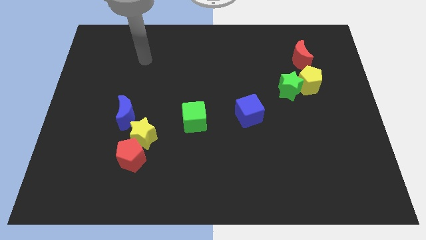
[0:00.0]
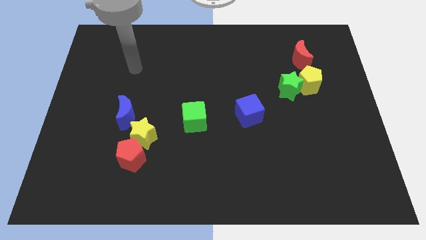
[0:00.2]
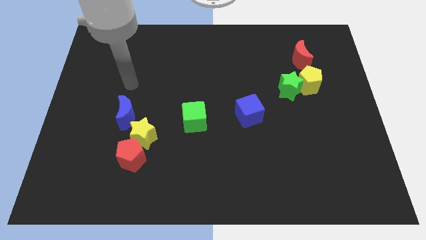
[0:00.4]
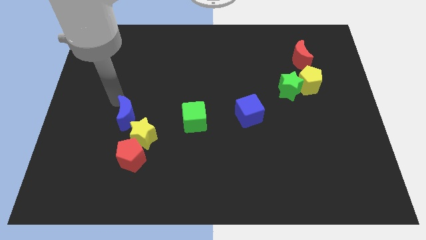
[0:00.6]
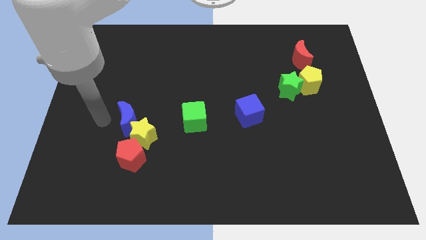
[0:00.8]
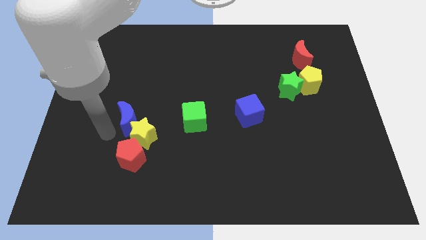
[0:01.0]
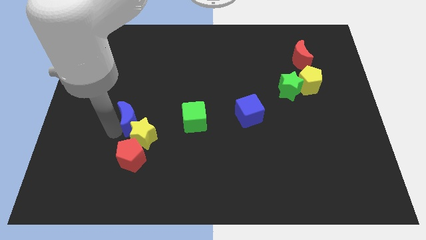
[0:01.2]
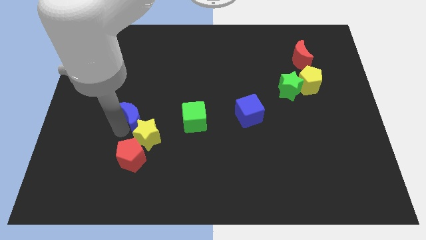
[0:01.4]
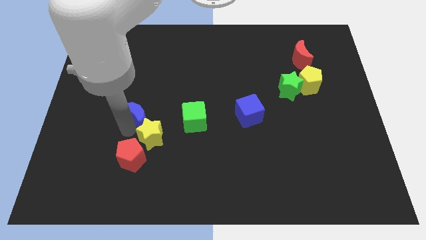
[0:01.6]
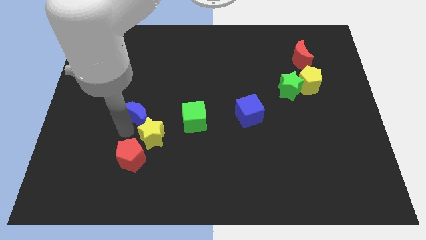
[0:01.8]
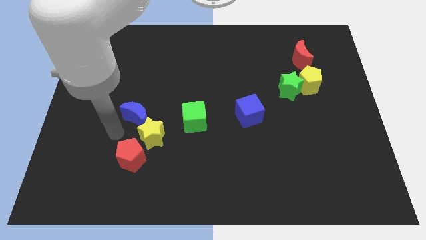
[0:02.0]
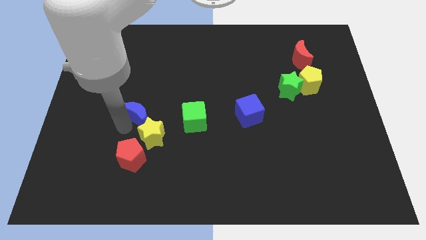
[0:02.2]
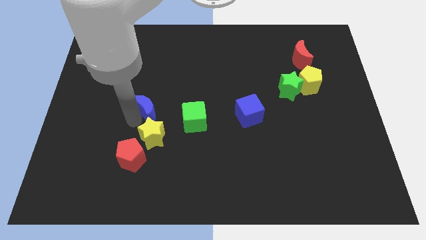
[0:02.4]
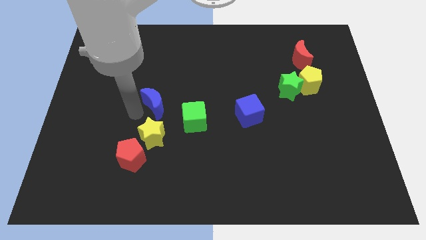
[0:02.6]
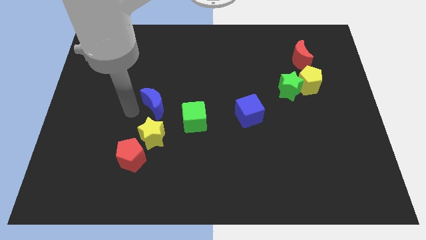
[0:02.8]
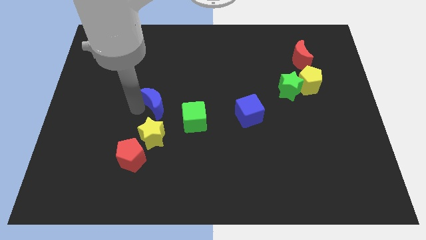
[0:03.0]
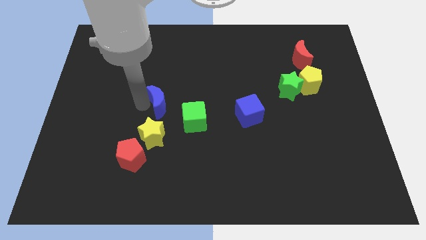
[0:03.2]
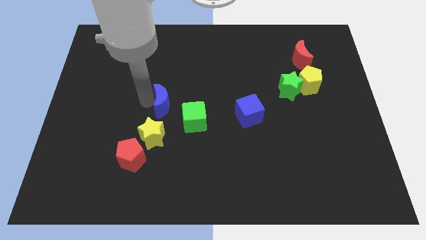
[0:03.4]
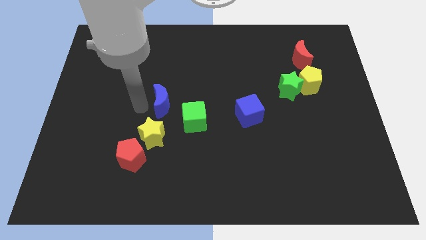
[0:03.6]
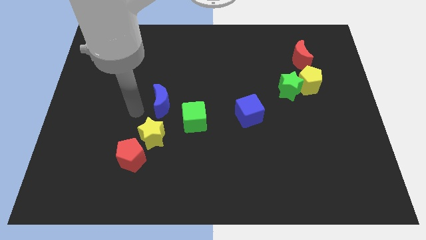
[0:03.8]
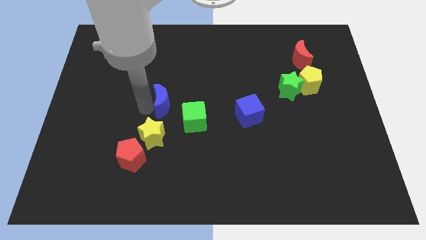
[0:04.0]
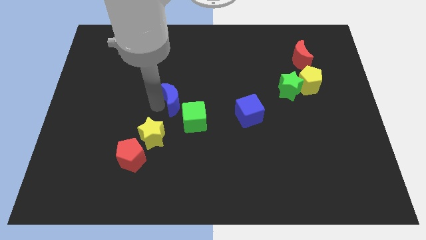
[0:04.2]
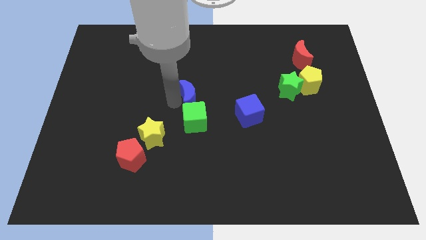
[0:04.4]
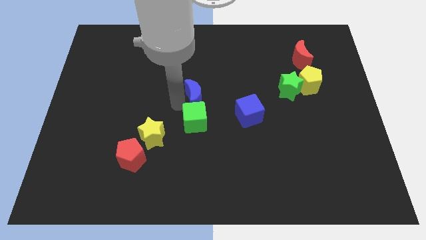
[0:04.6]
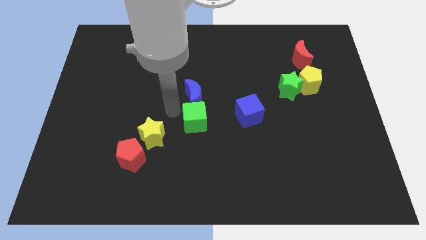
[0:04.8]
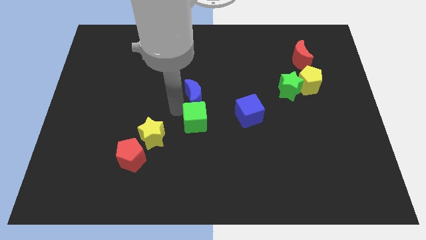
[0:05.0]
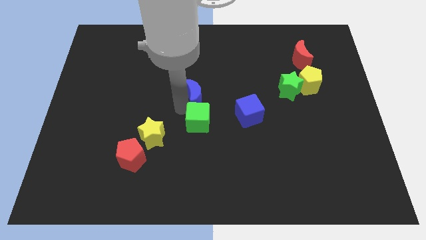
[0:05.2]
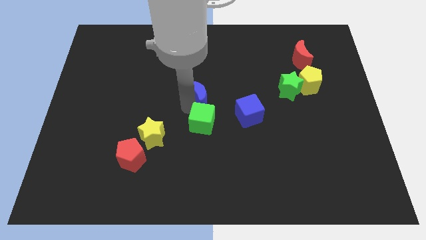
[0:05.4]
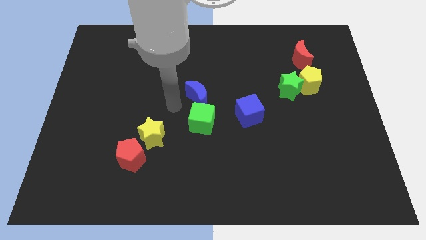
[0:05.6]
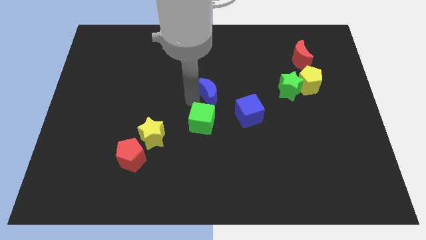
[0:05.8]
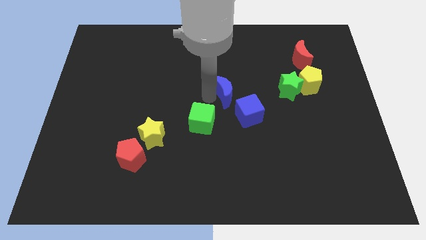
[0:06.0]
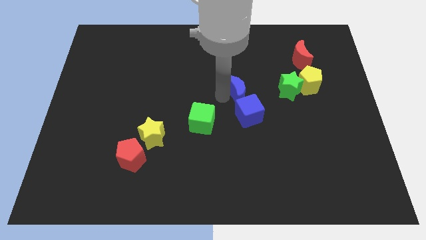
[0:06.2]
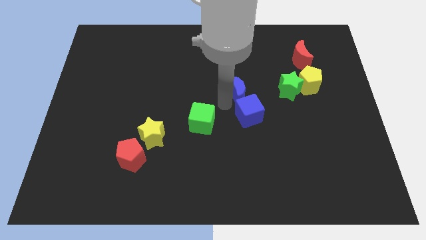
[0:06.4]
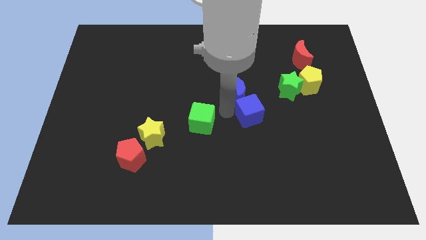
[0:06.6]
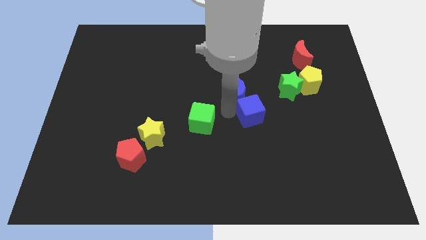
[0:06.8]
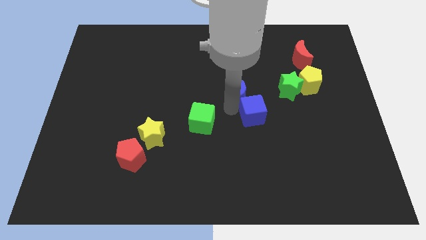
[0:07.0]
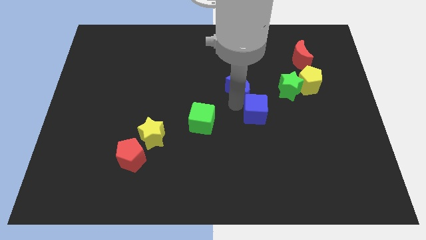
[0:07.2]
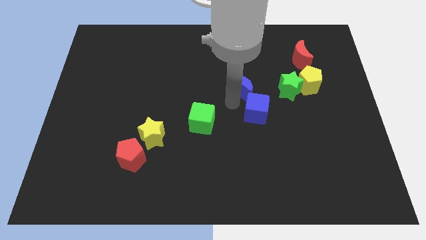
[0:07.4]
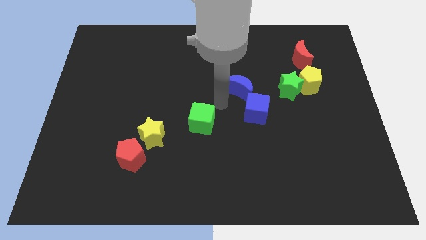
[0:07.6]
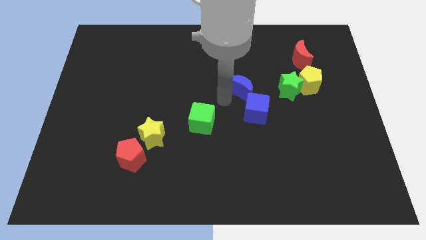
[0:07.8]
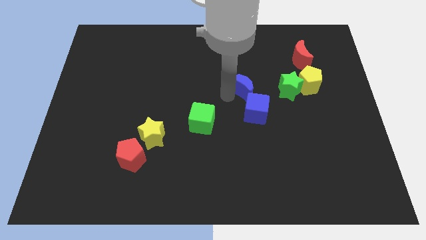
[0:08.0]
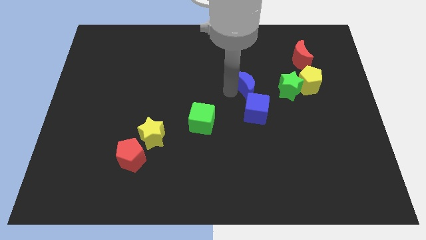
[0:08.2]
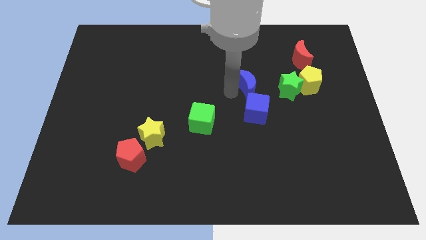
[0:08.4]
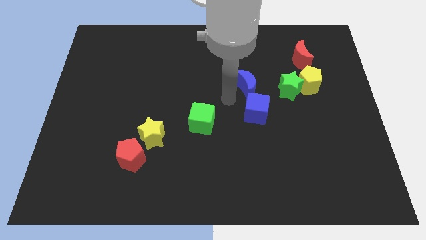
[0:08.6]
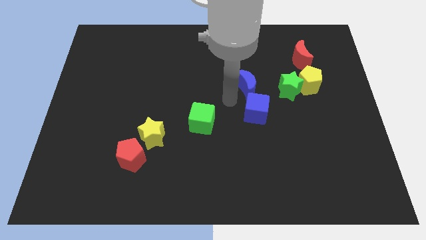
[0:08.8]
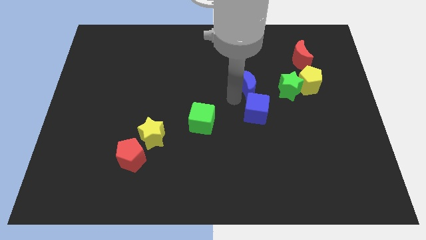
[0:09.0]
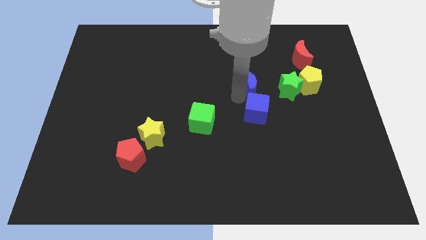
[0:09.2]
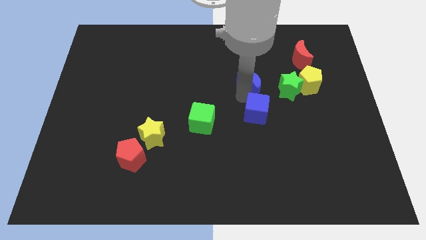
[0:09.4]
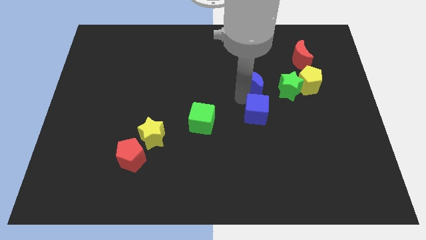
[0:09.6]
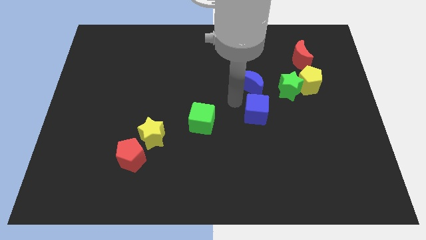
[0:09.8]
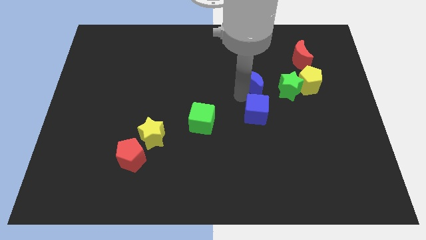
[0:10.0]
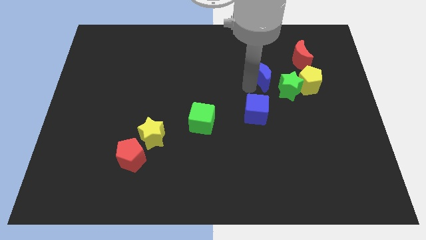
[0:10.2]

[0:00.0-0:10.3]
slide the blue moon to the bottom left side of the red moon

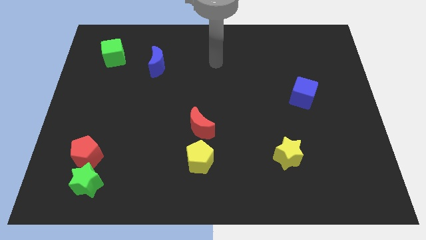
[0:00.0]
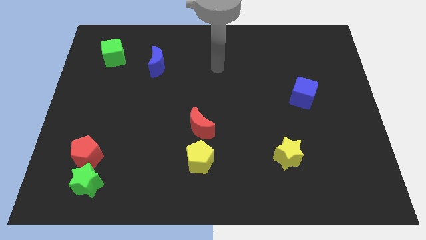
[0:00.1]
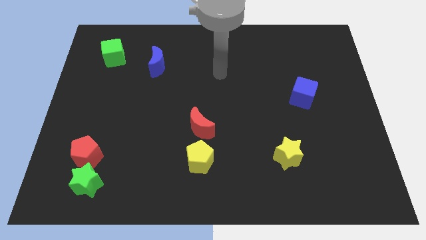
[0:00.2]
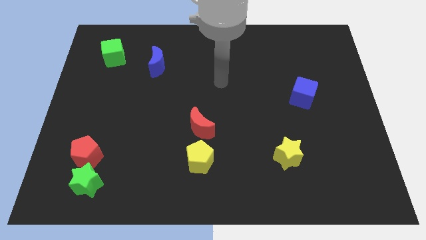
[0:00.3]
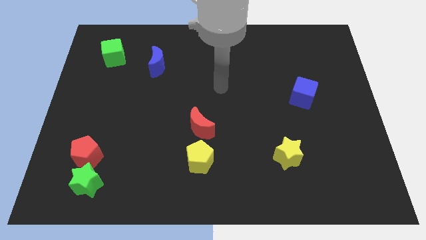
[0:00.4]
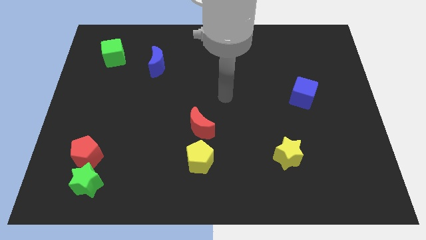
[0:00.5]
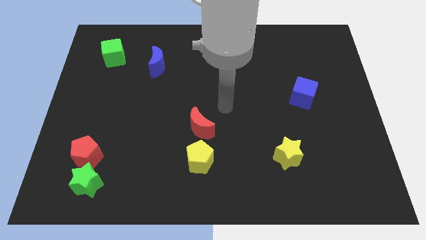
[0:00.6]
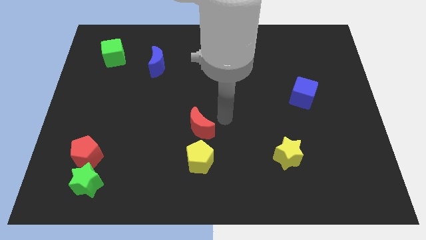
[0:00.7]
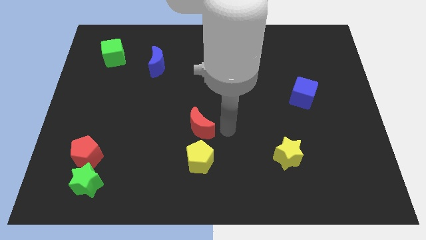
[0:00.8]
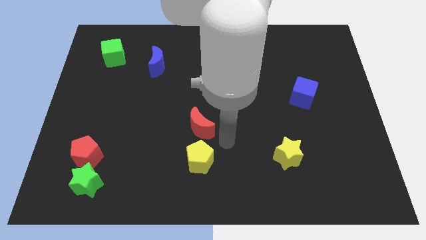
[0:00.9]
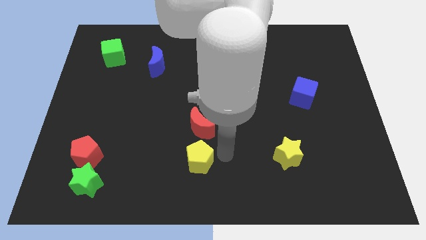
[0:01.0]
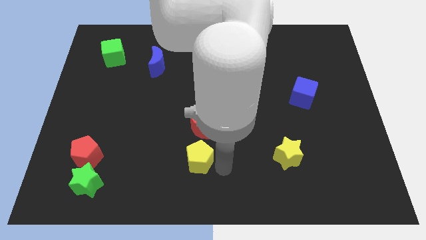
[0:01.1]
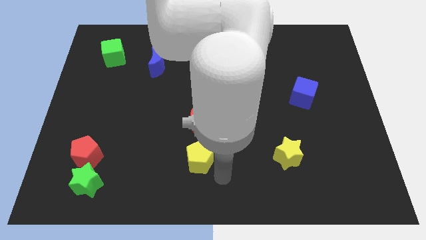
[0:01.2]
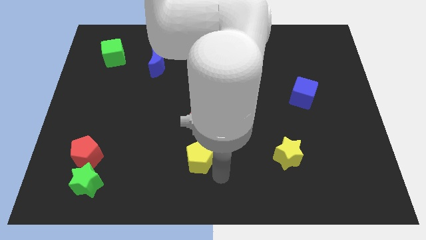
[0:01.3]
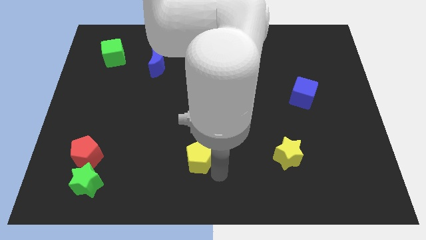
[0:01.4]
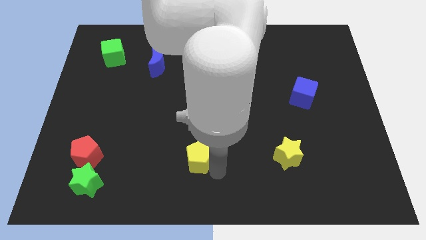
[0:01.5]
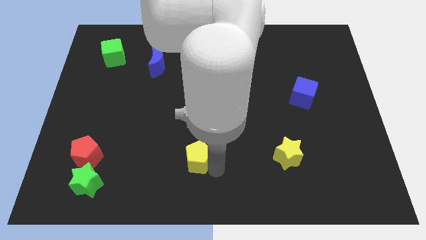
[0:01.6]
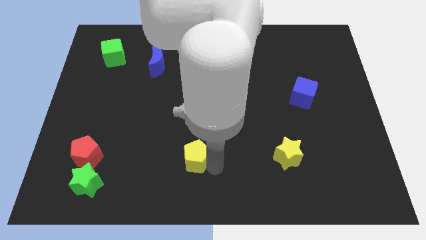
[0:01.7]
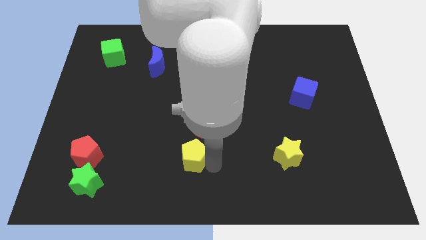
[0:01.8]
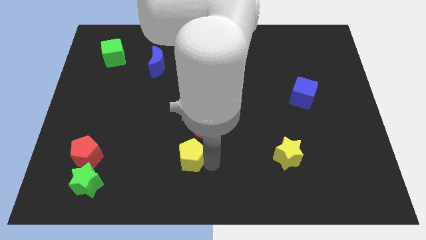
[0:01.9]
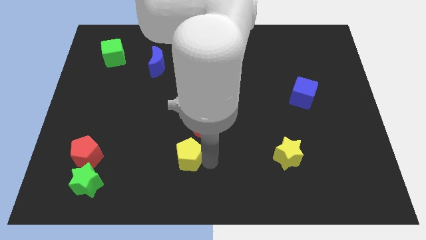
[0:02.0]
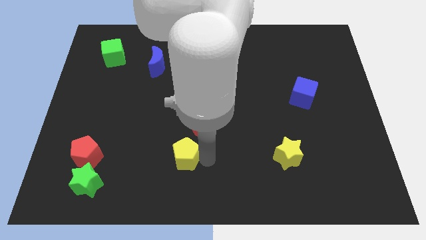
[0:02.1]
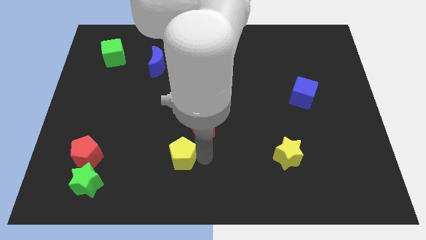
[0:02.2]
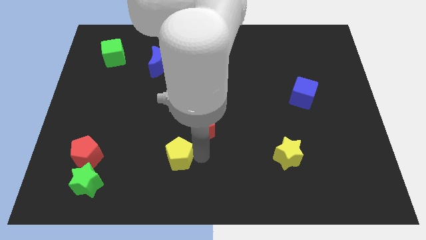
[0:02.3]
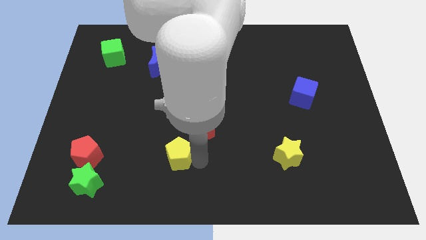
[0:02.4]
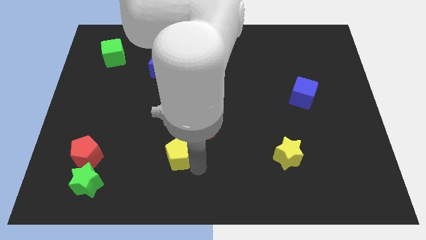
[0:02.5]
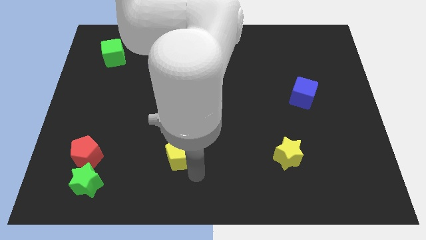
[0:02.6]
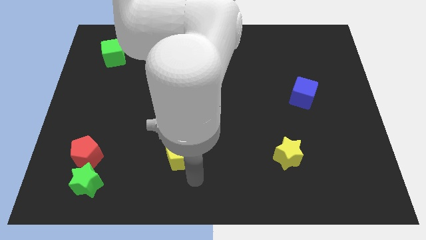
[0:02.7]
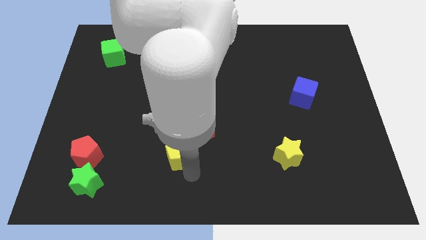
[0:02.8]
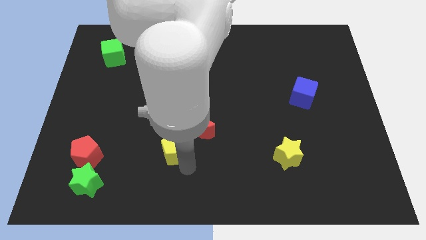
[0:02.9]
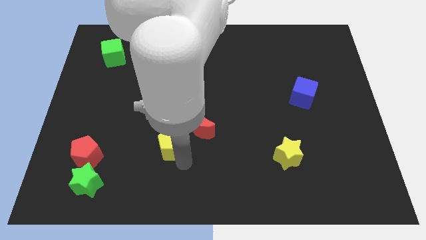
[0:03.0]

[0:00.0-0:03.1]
slide the yellow pentagon left of the red moon
